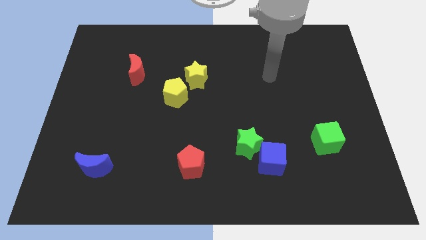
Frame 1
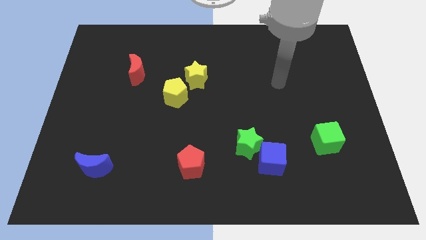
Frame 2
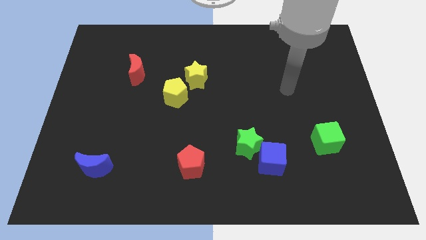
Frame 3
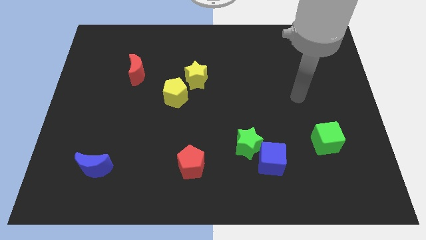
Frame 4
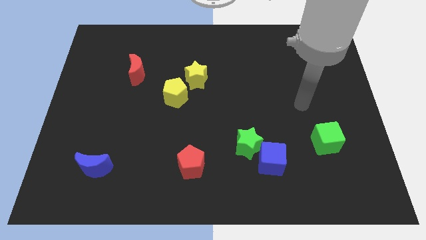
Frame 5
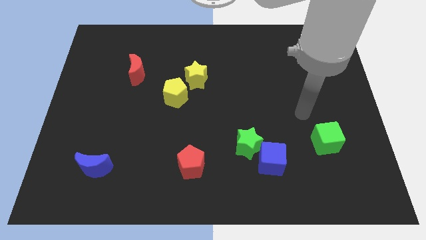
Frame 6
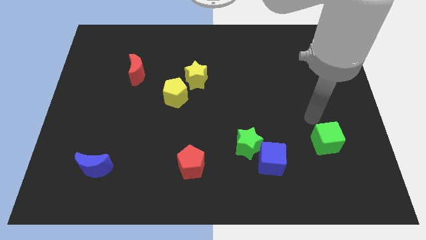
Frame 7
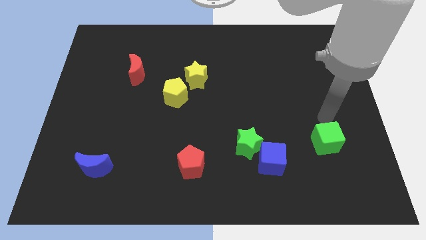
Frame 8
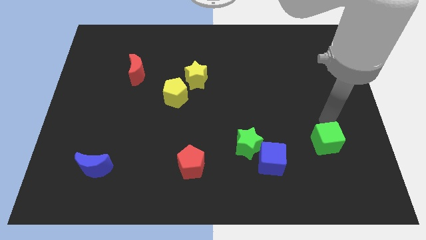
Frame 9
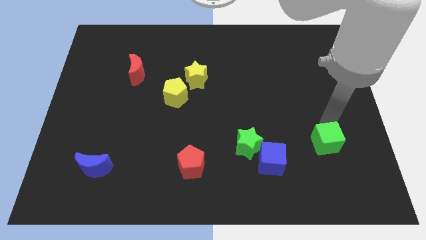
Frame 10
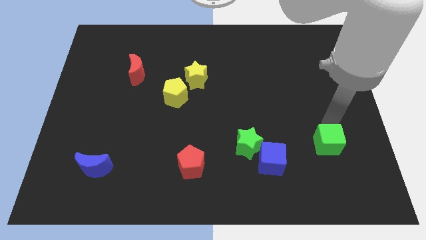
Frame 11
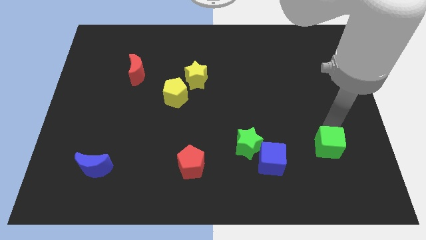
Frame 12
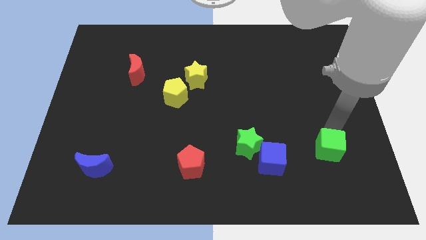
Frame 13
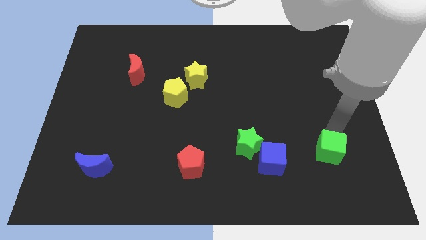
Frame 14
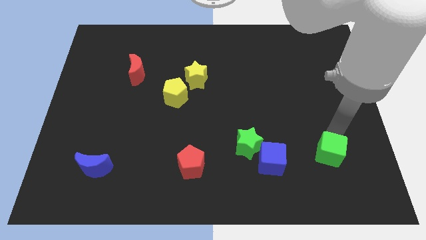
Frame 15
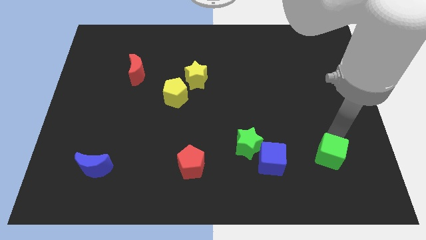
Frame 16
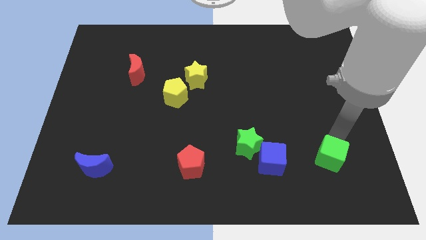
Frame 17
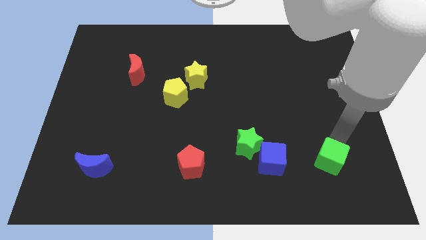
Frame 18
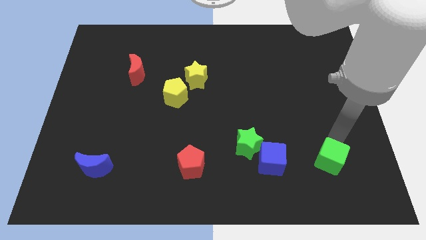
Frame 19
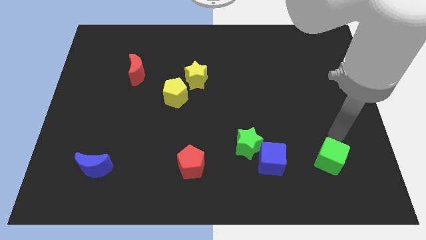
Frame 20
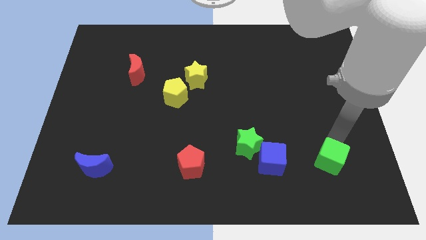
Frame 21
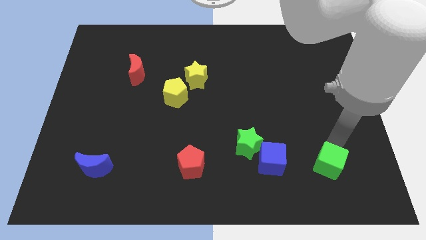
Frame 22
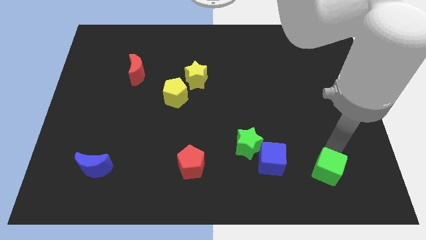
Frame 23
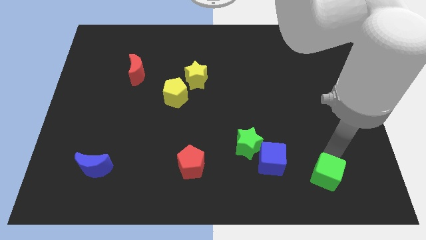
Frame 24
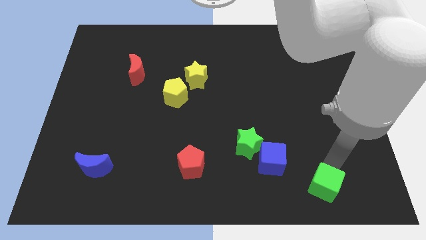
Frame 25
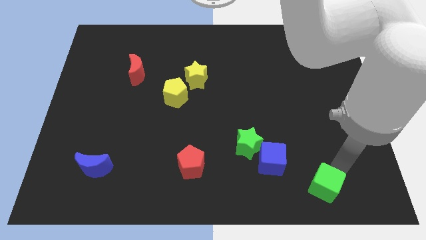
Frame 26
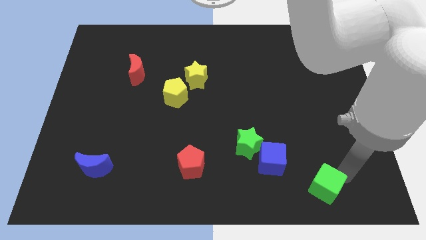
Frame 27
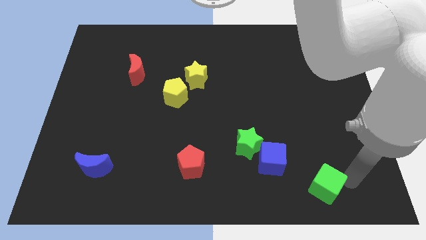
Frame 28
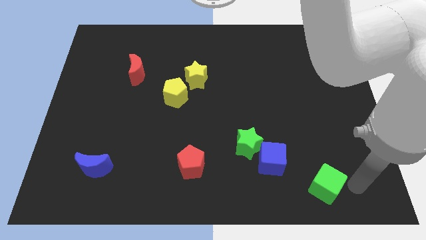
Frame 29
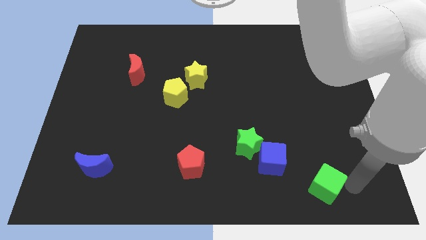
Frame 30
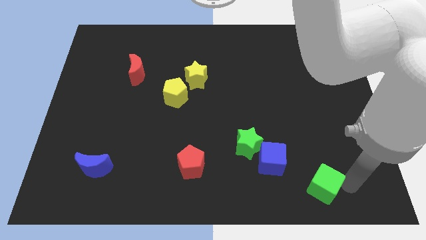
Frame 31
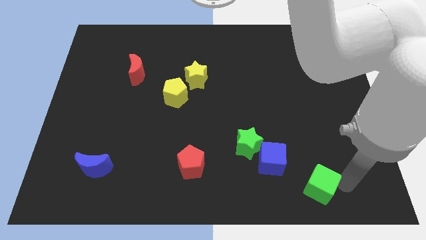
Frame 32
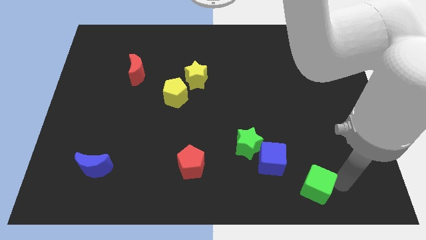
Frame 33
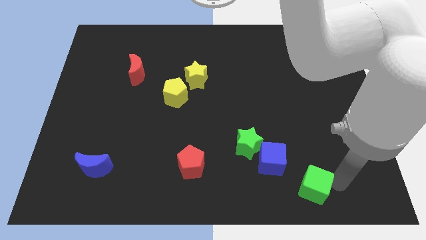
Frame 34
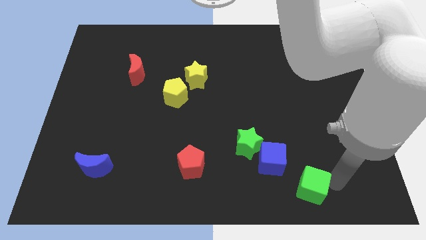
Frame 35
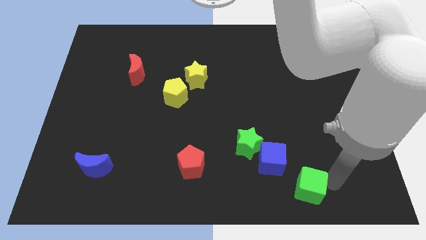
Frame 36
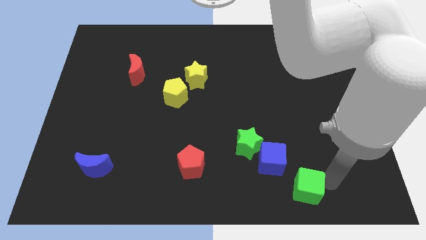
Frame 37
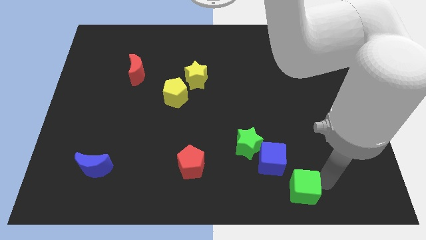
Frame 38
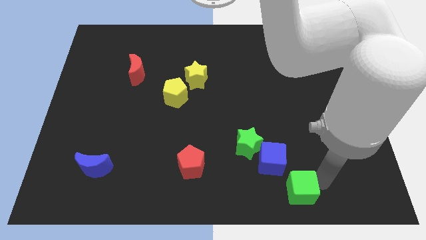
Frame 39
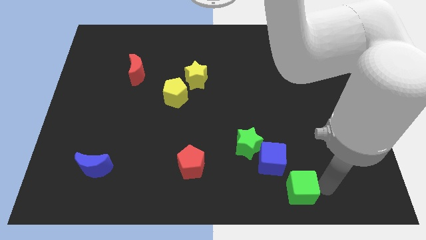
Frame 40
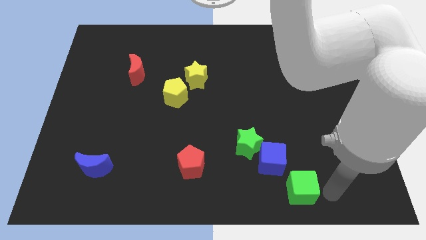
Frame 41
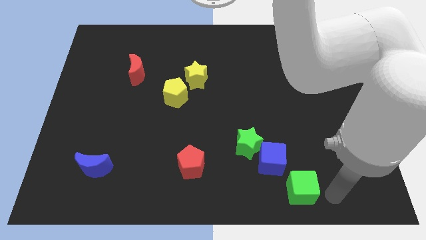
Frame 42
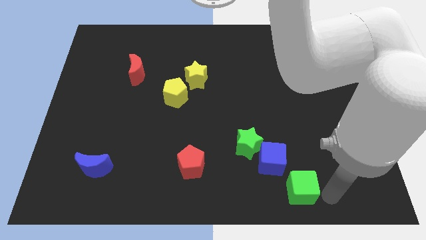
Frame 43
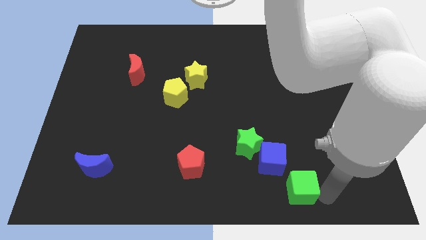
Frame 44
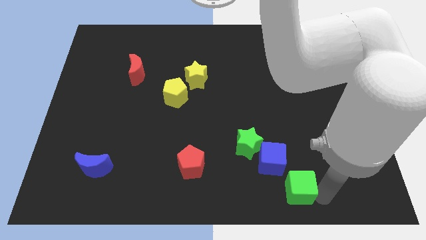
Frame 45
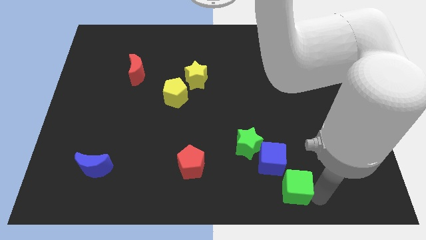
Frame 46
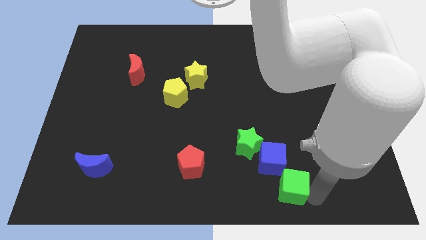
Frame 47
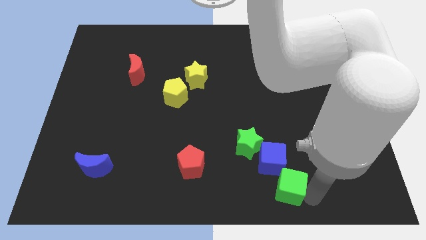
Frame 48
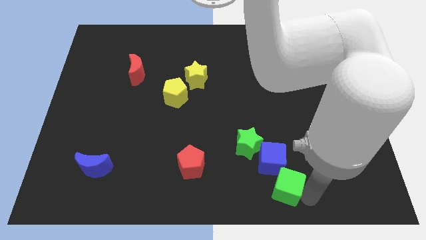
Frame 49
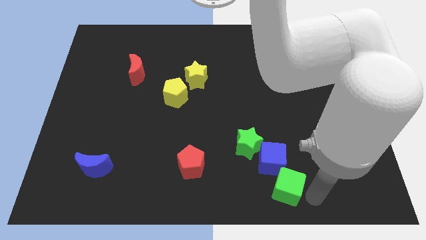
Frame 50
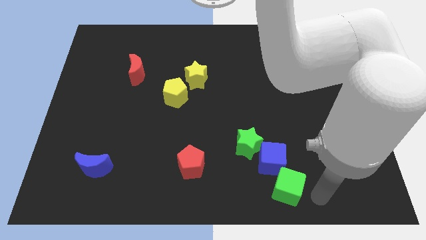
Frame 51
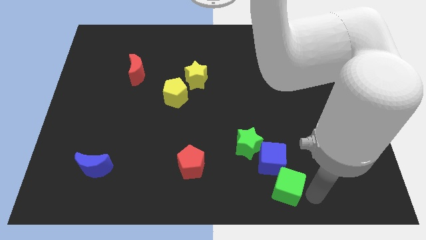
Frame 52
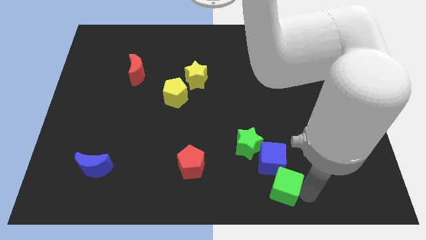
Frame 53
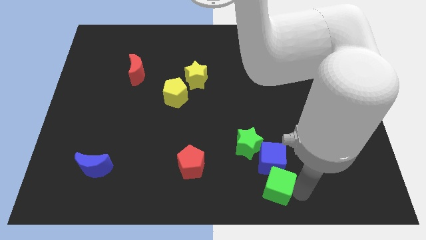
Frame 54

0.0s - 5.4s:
slide the green cube to the bottom left of the blue cube

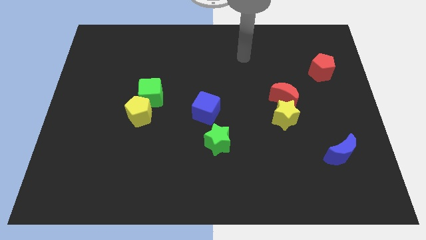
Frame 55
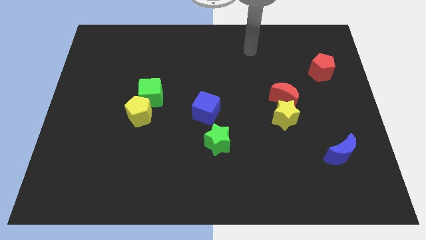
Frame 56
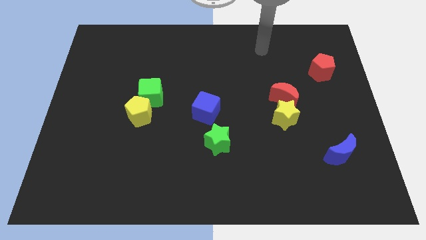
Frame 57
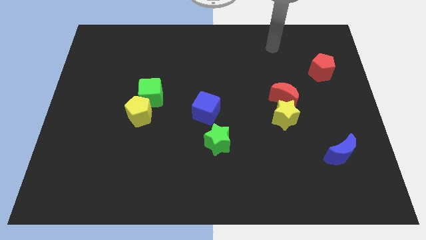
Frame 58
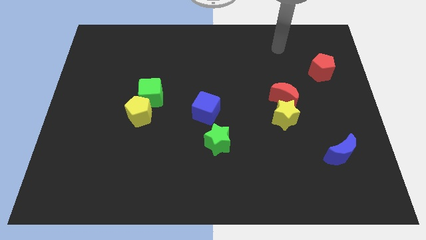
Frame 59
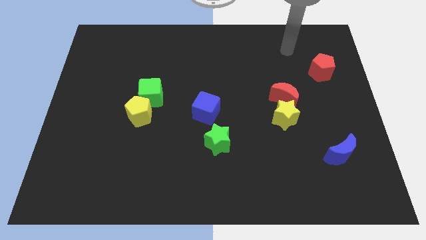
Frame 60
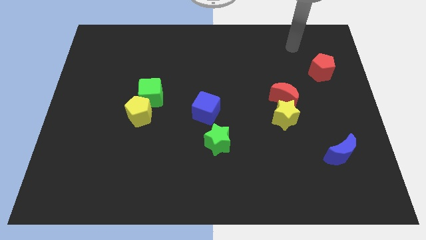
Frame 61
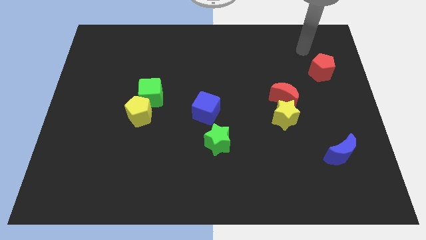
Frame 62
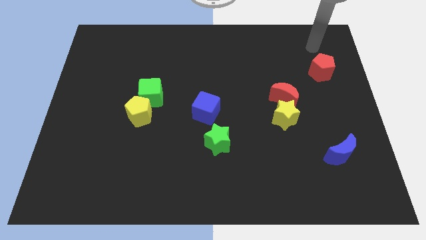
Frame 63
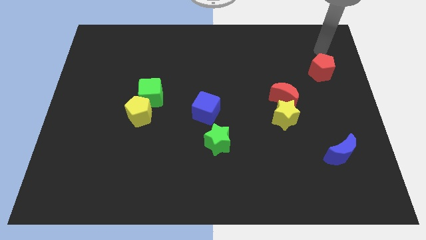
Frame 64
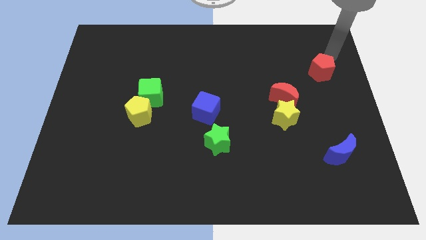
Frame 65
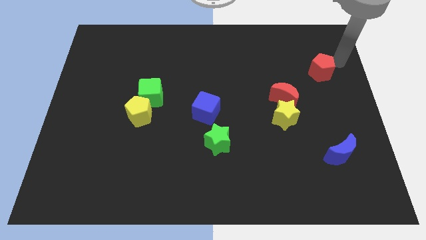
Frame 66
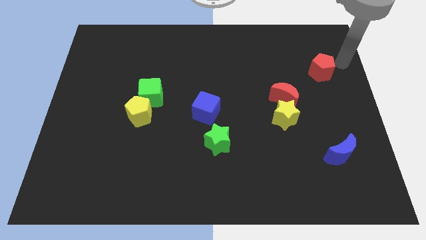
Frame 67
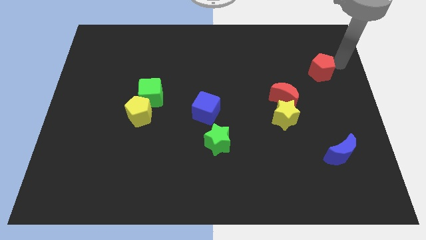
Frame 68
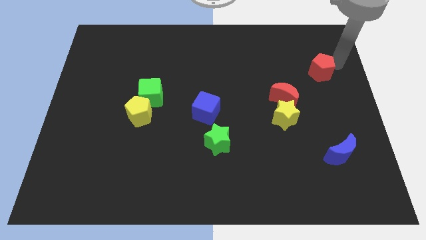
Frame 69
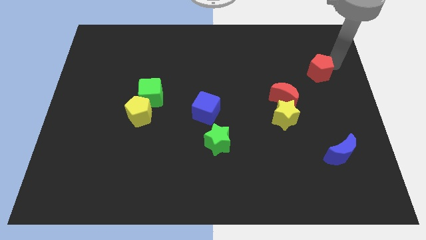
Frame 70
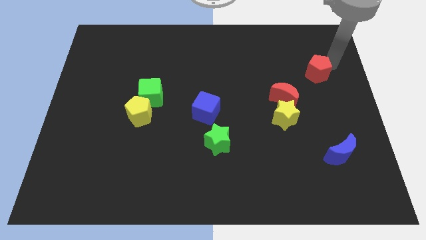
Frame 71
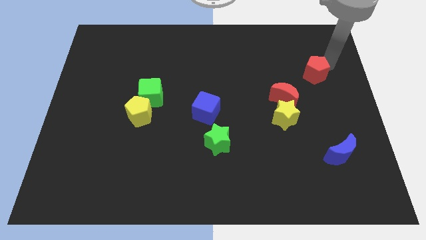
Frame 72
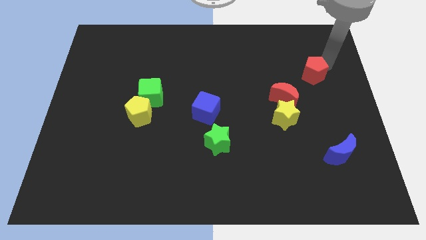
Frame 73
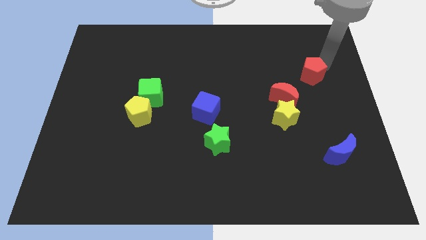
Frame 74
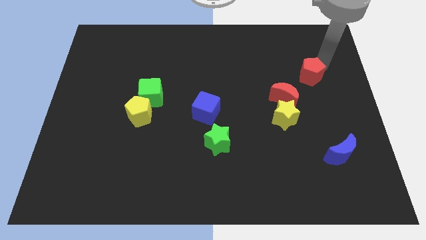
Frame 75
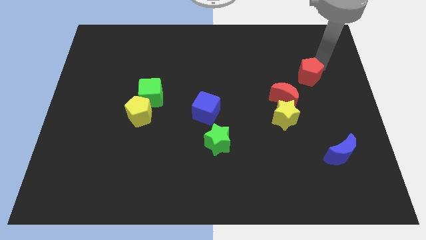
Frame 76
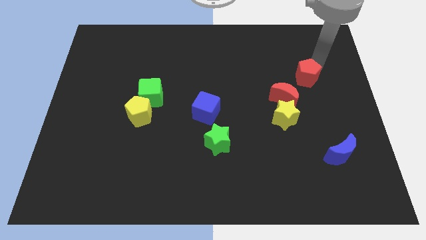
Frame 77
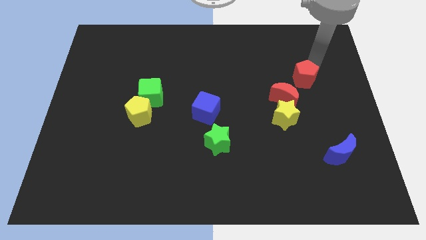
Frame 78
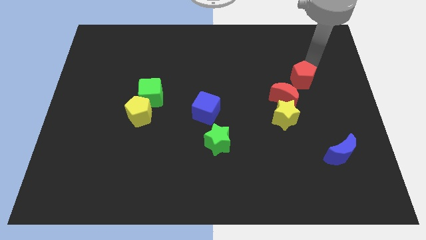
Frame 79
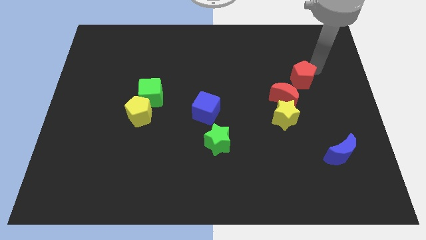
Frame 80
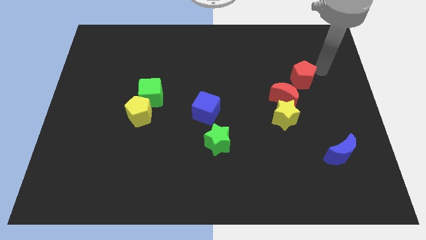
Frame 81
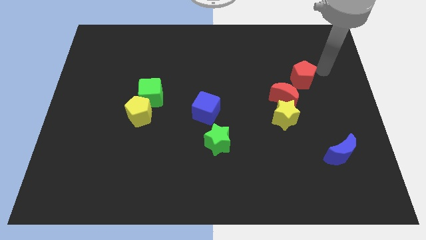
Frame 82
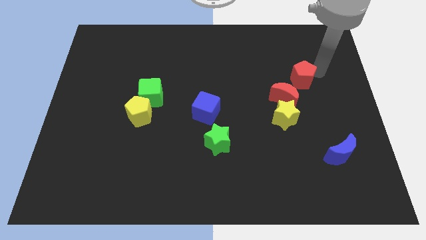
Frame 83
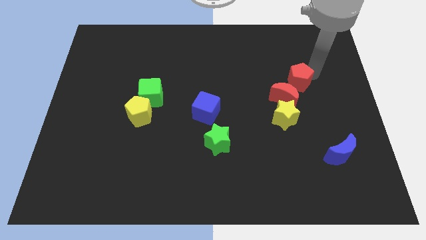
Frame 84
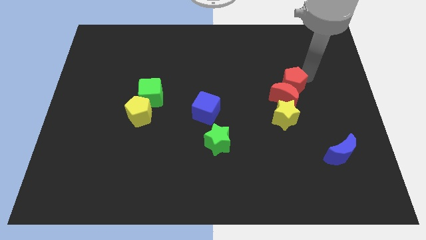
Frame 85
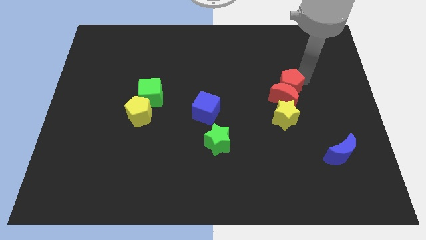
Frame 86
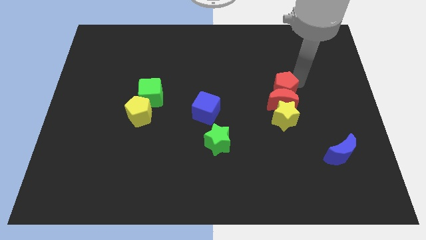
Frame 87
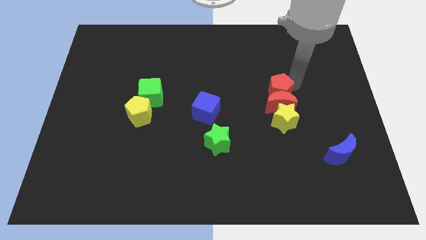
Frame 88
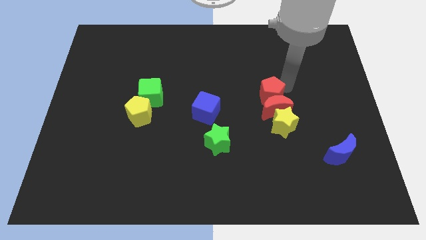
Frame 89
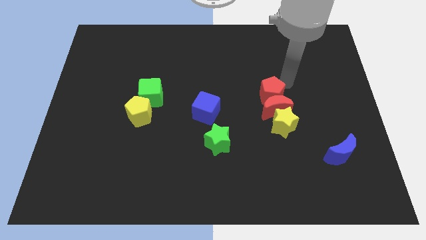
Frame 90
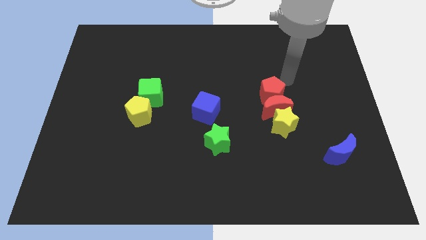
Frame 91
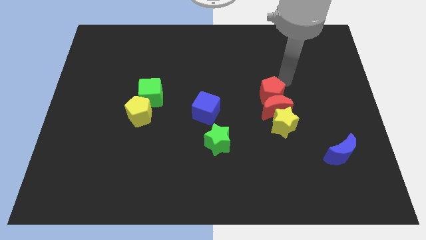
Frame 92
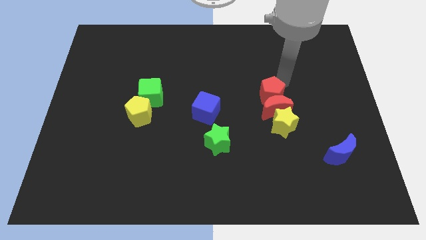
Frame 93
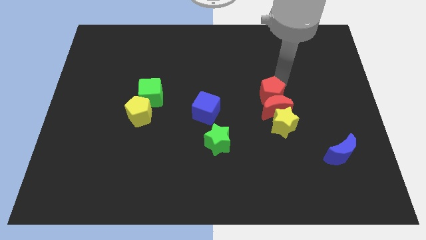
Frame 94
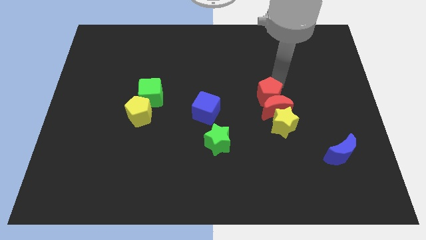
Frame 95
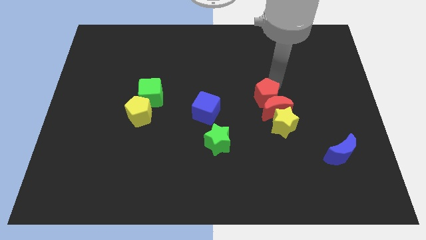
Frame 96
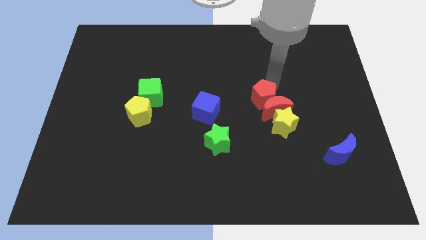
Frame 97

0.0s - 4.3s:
push the red pentagon to the right of the blue cube
